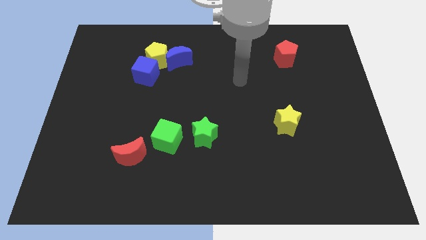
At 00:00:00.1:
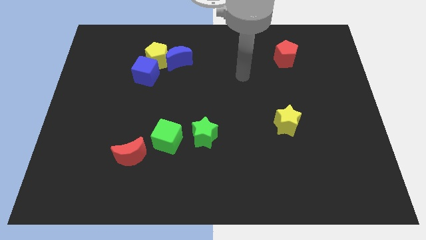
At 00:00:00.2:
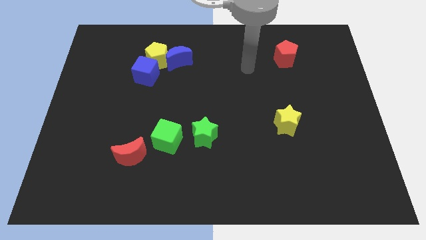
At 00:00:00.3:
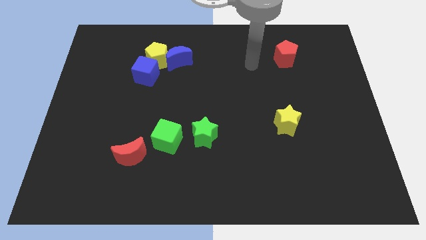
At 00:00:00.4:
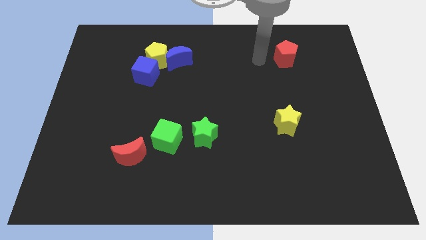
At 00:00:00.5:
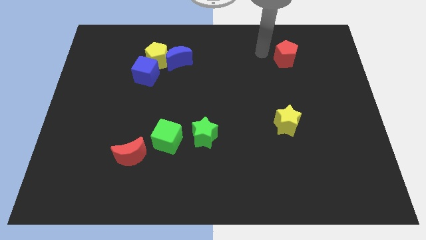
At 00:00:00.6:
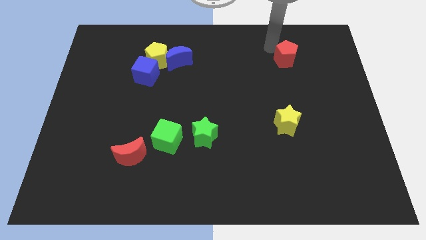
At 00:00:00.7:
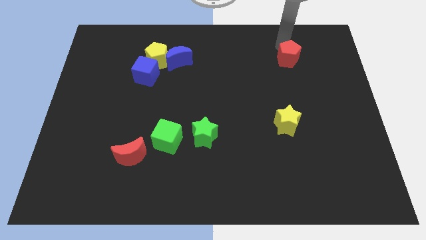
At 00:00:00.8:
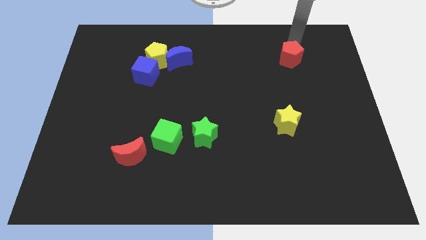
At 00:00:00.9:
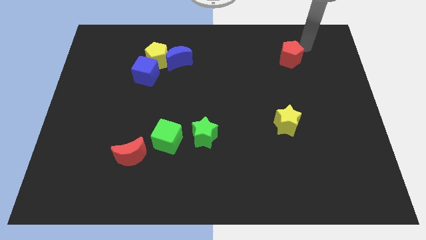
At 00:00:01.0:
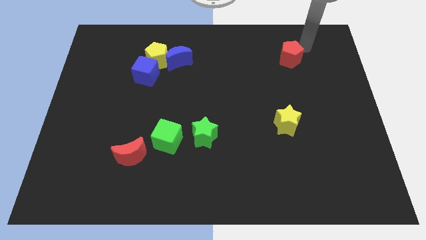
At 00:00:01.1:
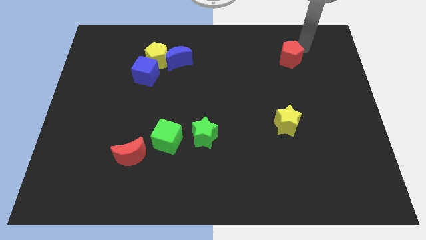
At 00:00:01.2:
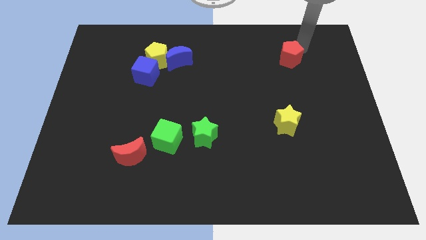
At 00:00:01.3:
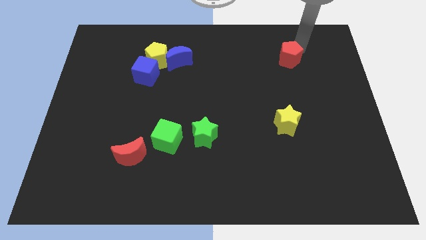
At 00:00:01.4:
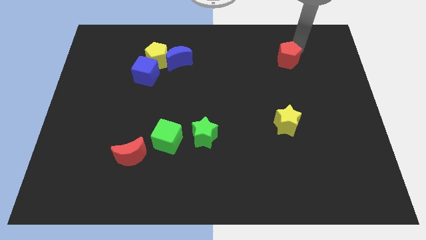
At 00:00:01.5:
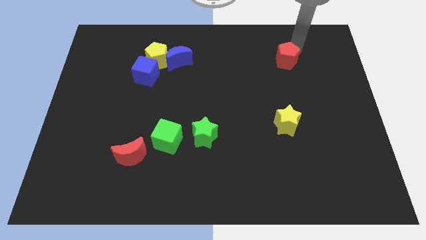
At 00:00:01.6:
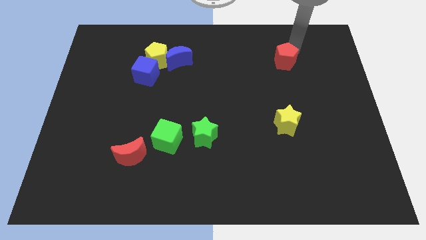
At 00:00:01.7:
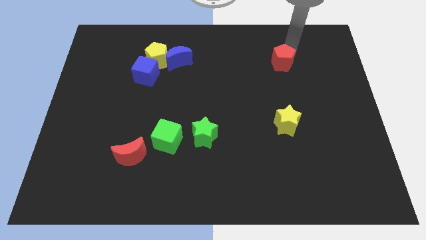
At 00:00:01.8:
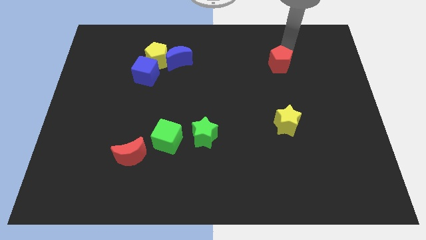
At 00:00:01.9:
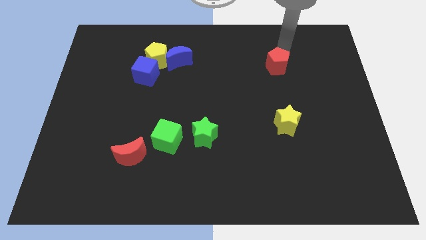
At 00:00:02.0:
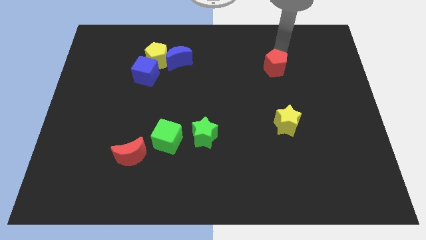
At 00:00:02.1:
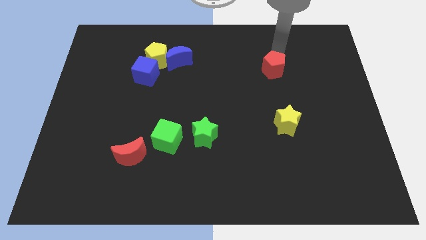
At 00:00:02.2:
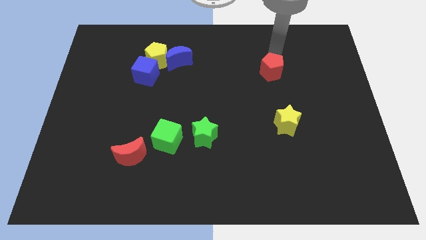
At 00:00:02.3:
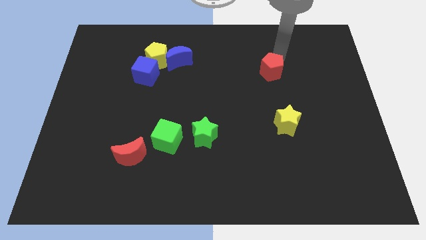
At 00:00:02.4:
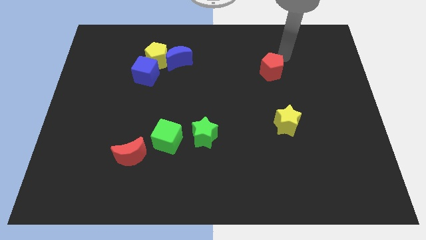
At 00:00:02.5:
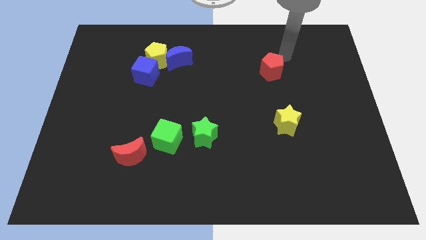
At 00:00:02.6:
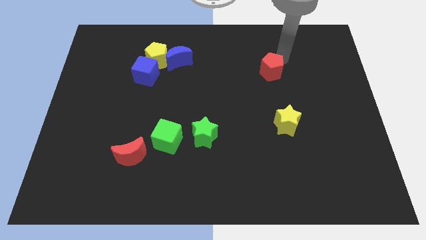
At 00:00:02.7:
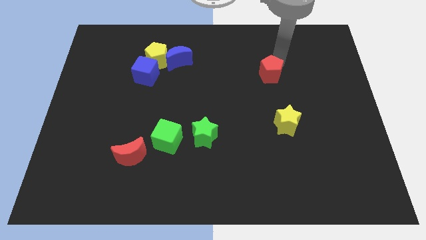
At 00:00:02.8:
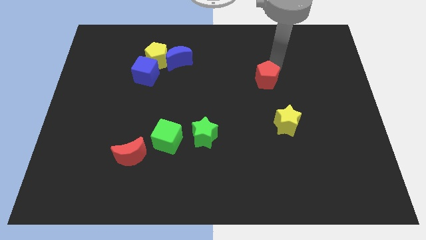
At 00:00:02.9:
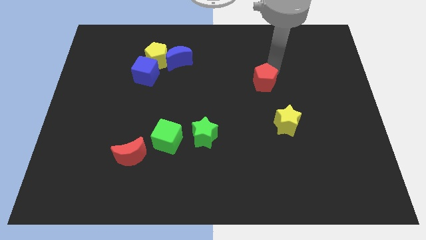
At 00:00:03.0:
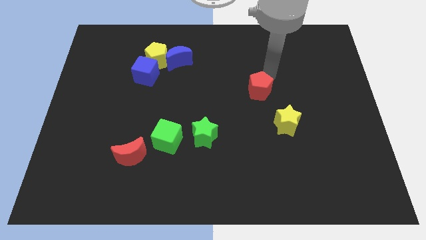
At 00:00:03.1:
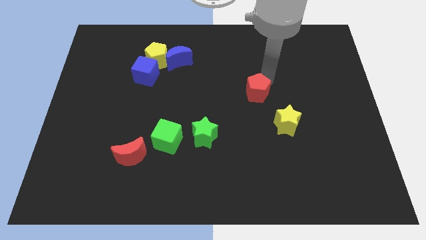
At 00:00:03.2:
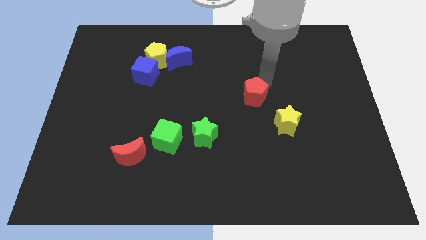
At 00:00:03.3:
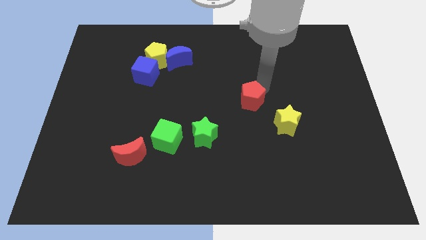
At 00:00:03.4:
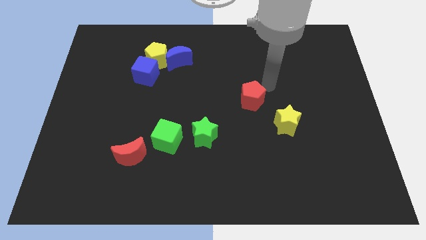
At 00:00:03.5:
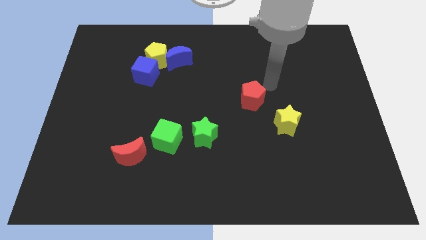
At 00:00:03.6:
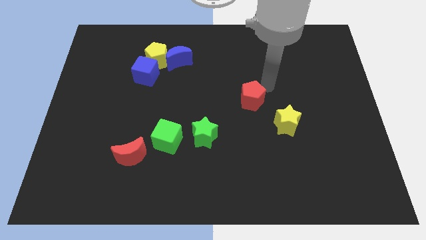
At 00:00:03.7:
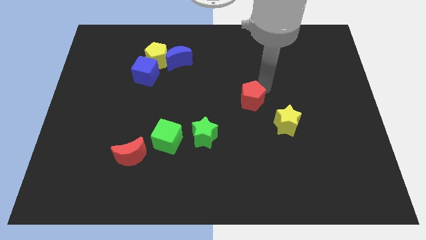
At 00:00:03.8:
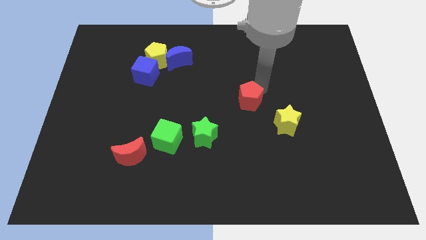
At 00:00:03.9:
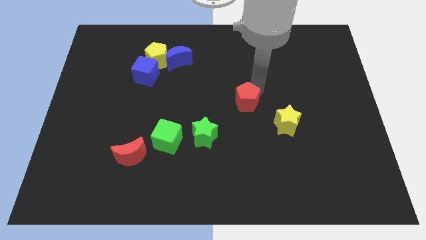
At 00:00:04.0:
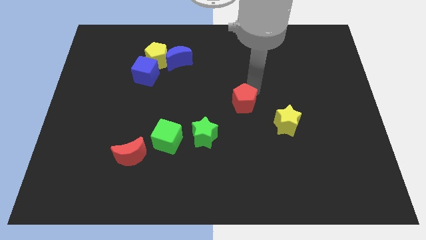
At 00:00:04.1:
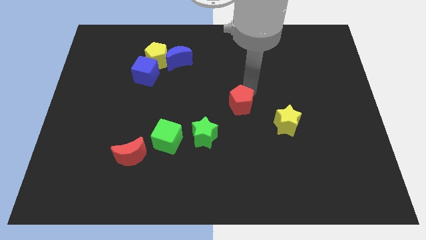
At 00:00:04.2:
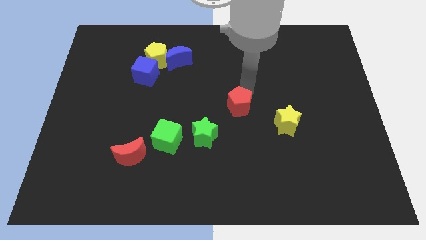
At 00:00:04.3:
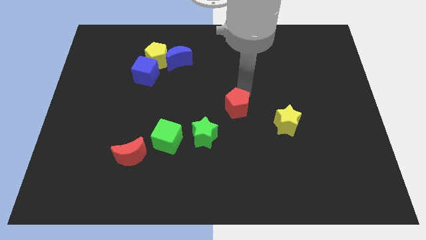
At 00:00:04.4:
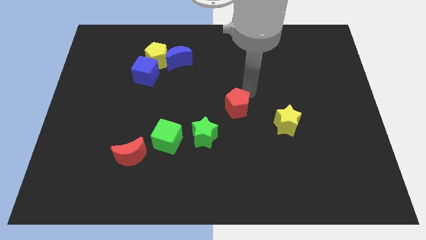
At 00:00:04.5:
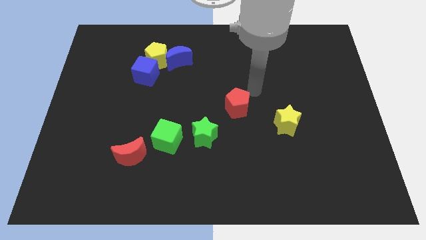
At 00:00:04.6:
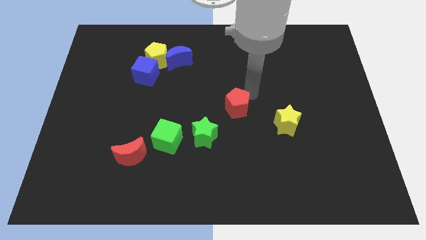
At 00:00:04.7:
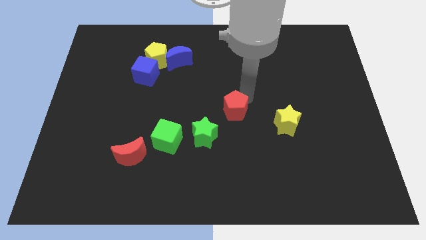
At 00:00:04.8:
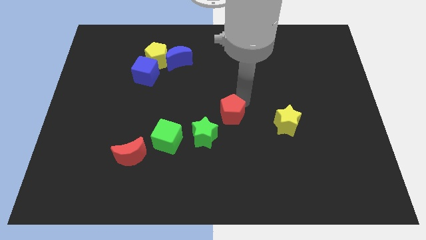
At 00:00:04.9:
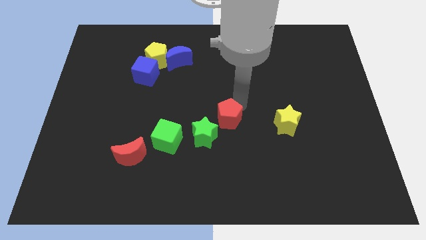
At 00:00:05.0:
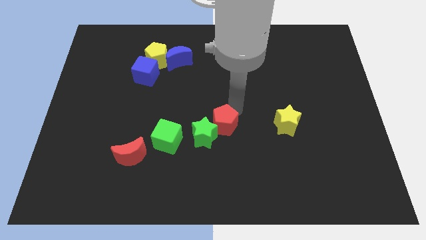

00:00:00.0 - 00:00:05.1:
put the red pentagon to the green star

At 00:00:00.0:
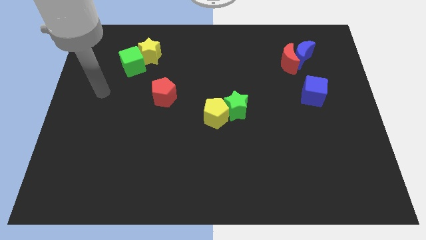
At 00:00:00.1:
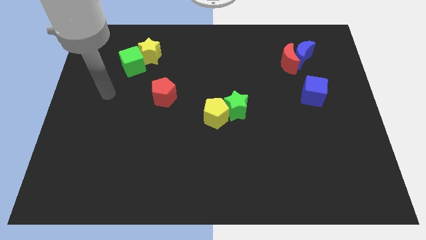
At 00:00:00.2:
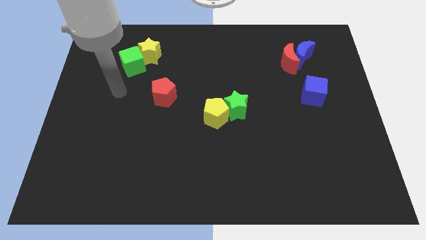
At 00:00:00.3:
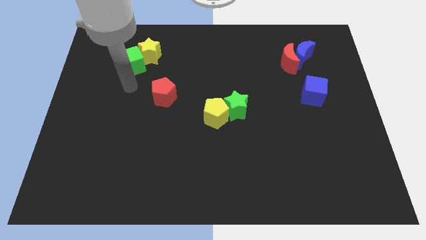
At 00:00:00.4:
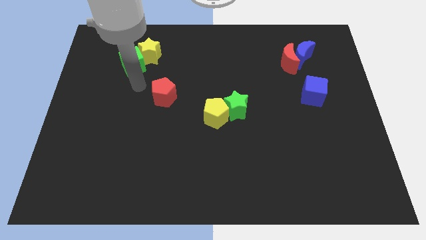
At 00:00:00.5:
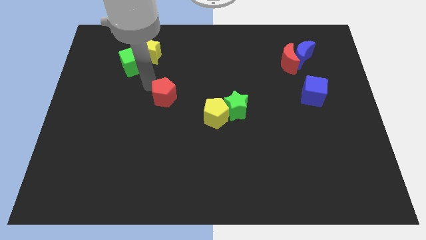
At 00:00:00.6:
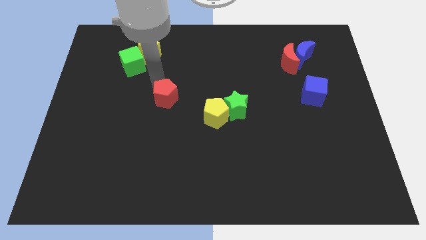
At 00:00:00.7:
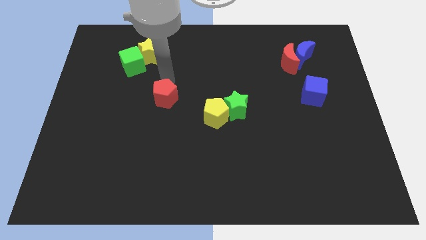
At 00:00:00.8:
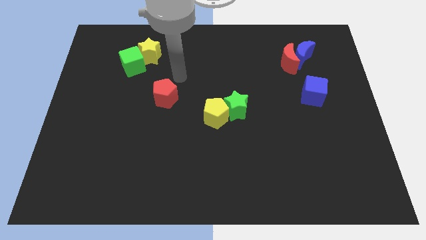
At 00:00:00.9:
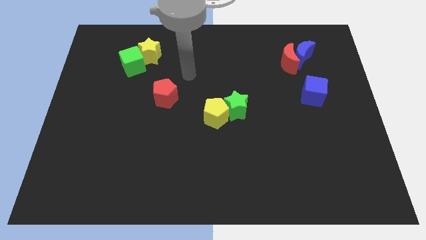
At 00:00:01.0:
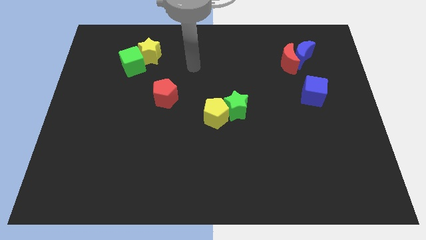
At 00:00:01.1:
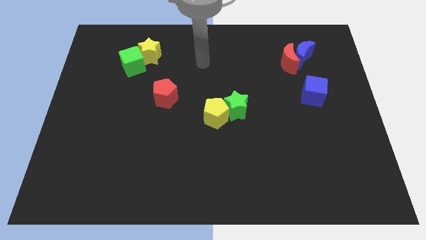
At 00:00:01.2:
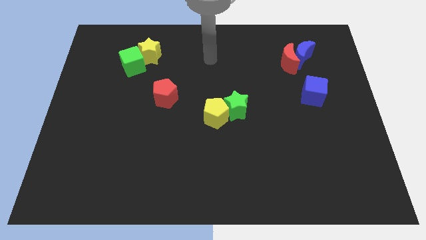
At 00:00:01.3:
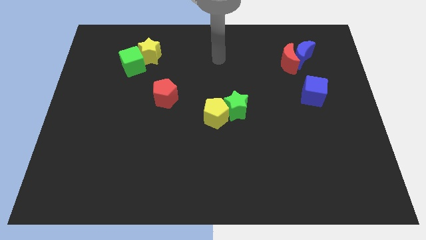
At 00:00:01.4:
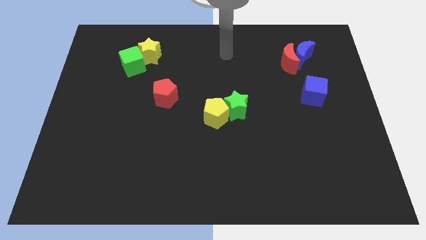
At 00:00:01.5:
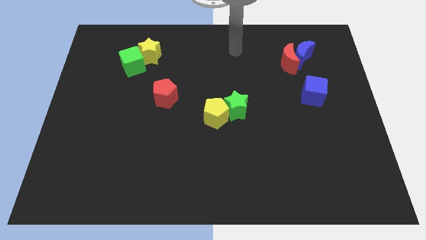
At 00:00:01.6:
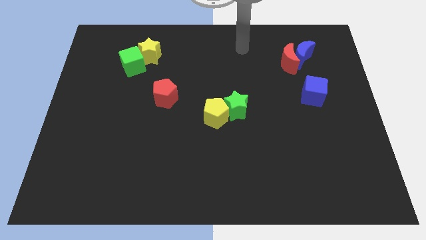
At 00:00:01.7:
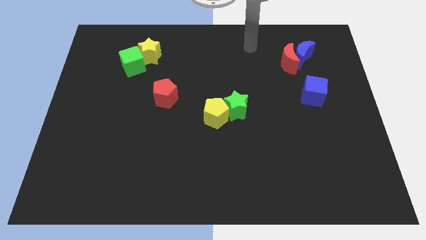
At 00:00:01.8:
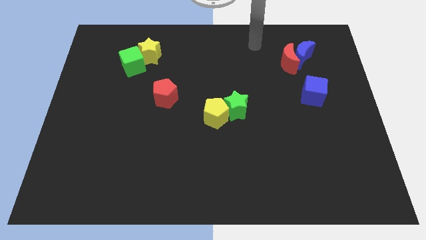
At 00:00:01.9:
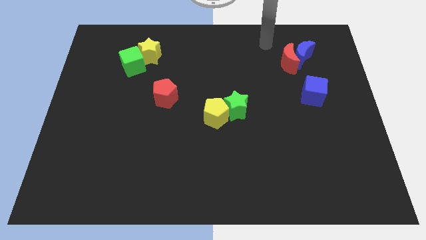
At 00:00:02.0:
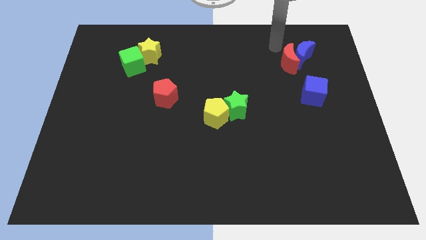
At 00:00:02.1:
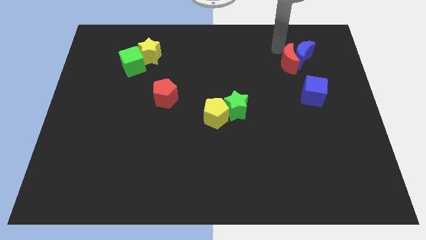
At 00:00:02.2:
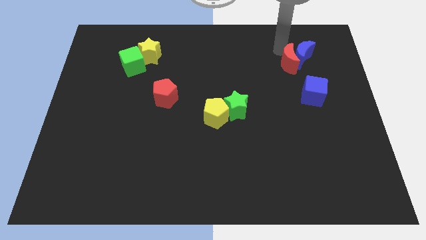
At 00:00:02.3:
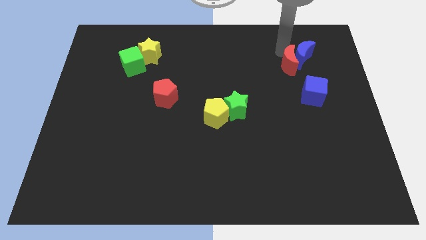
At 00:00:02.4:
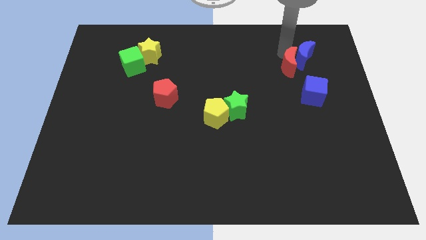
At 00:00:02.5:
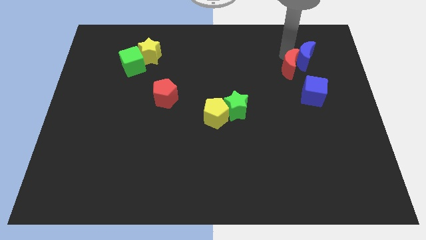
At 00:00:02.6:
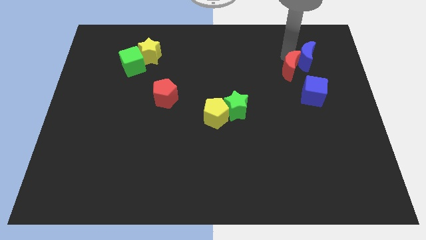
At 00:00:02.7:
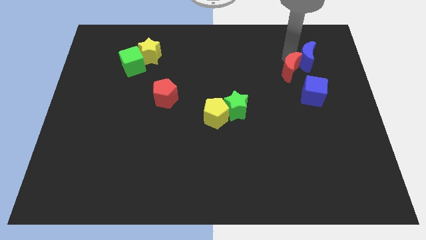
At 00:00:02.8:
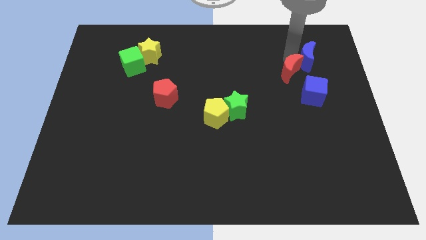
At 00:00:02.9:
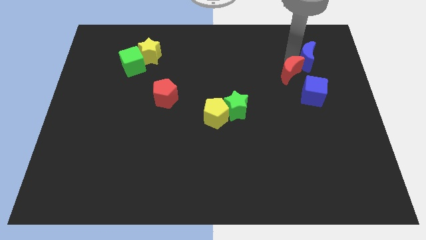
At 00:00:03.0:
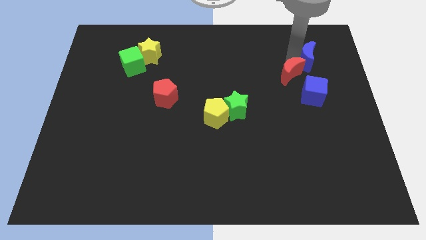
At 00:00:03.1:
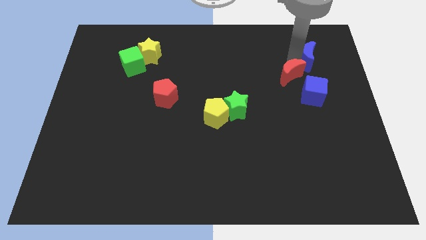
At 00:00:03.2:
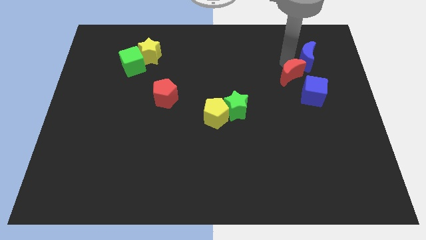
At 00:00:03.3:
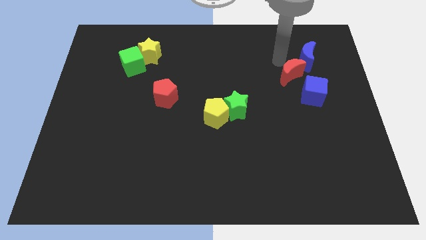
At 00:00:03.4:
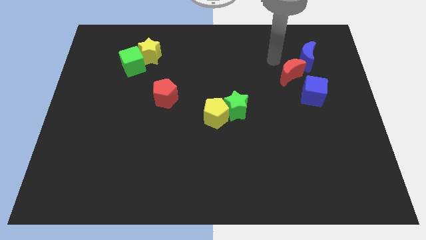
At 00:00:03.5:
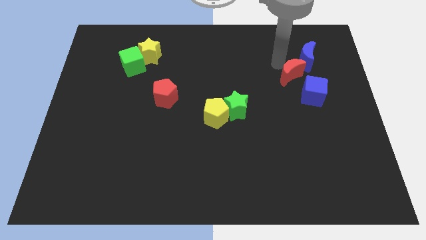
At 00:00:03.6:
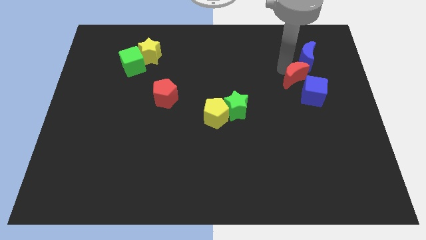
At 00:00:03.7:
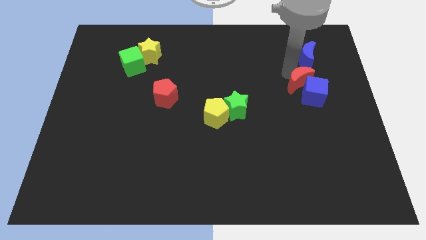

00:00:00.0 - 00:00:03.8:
put the red moon next to the blue cube
